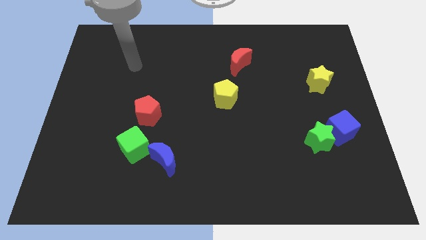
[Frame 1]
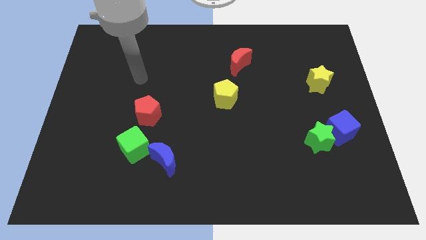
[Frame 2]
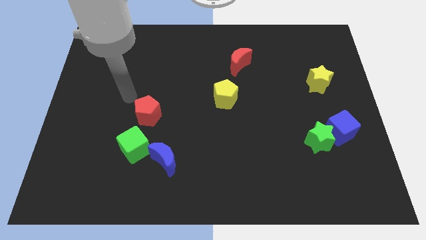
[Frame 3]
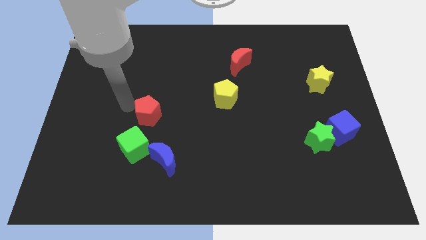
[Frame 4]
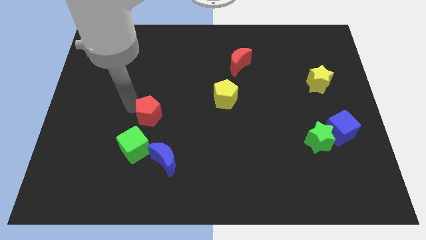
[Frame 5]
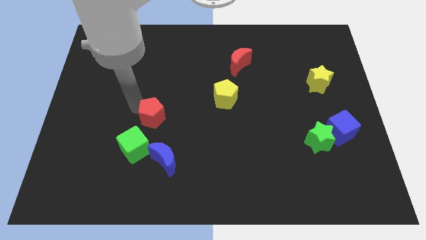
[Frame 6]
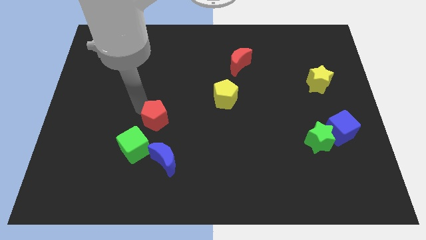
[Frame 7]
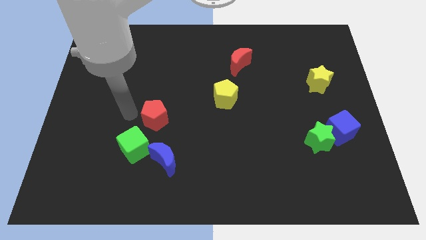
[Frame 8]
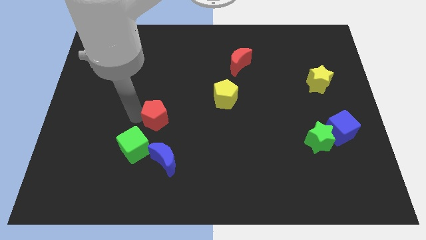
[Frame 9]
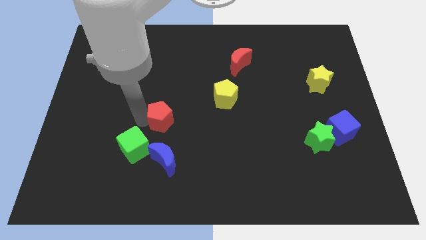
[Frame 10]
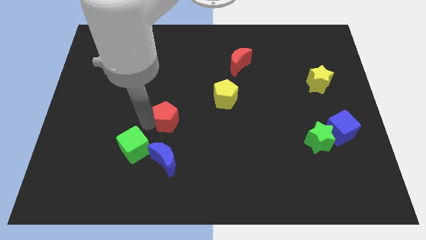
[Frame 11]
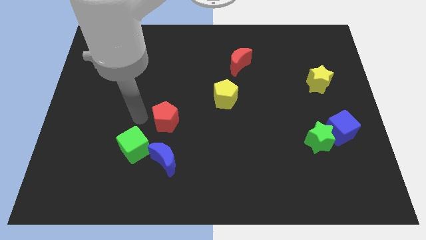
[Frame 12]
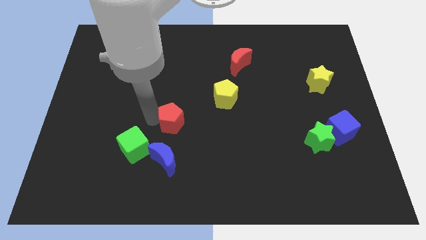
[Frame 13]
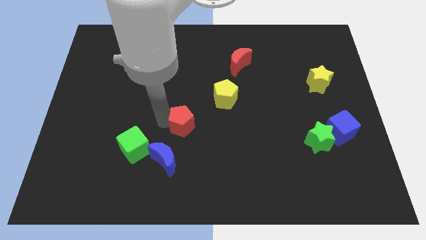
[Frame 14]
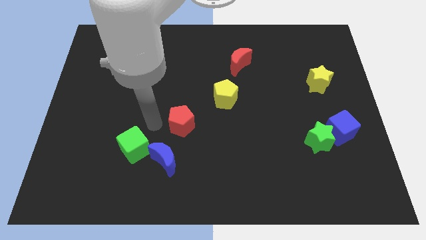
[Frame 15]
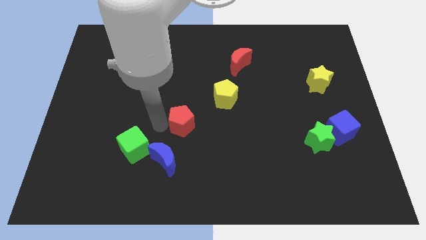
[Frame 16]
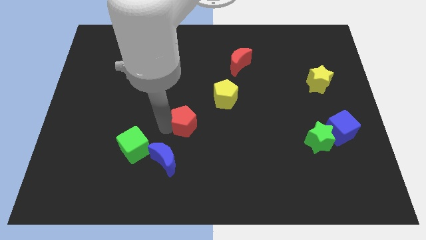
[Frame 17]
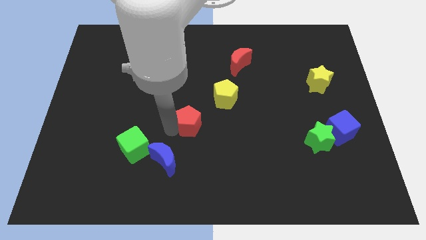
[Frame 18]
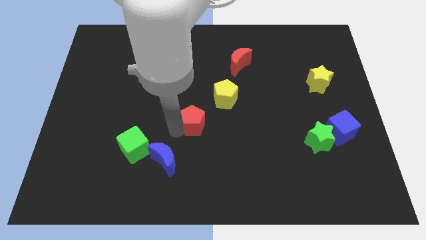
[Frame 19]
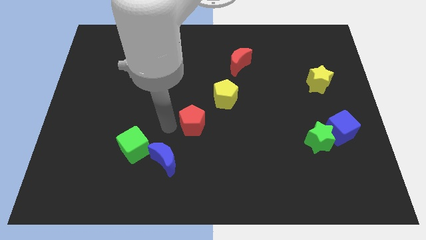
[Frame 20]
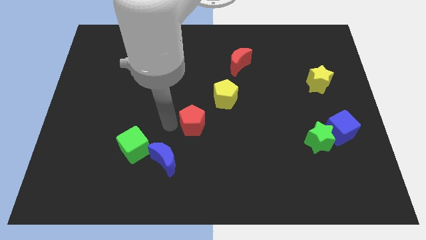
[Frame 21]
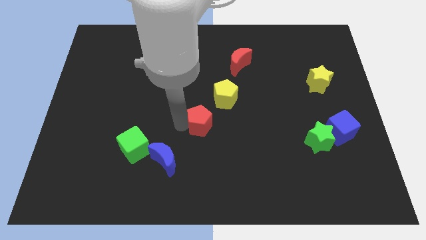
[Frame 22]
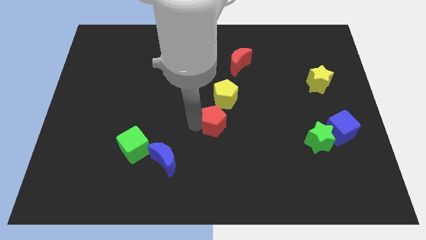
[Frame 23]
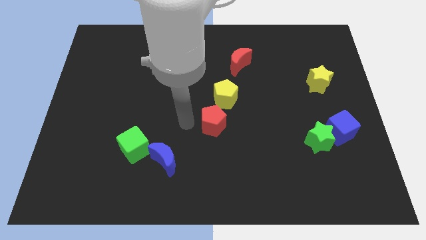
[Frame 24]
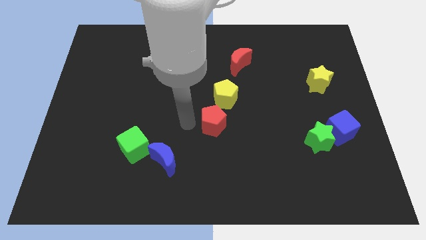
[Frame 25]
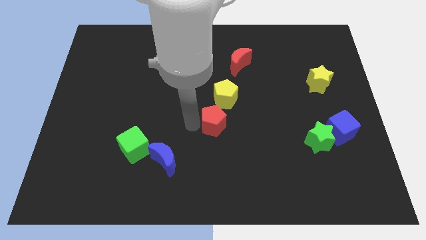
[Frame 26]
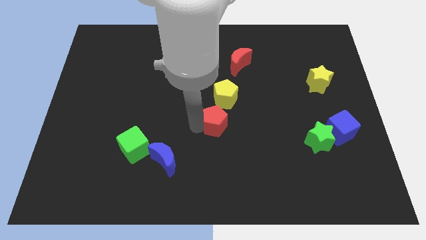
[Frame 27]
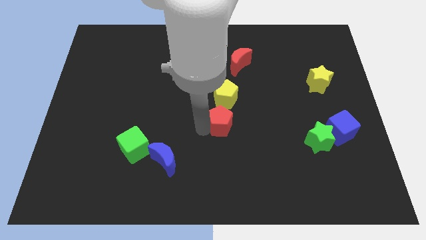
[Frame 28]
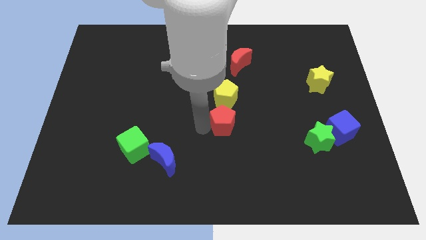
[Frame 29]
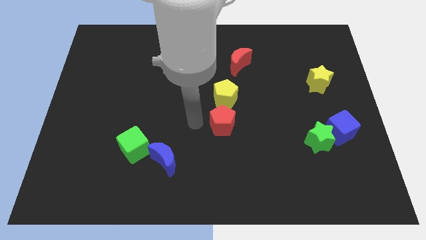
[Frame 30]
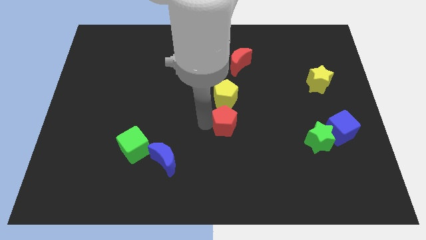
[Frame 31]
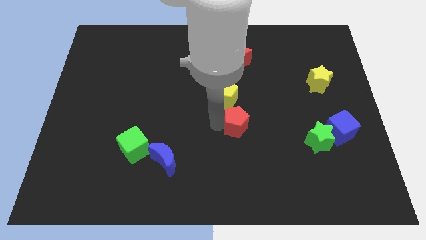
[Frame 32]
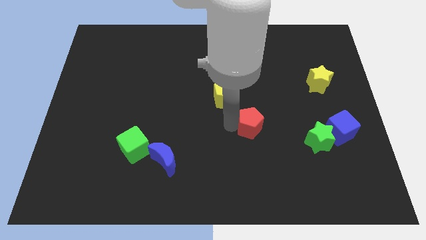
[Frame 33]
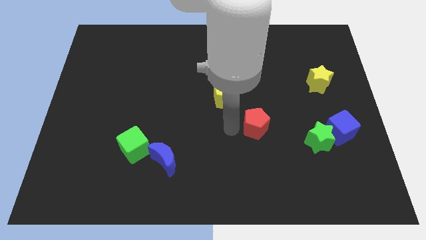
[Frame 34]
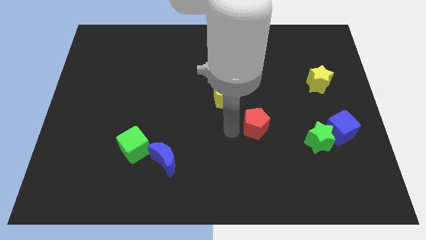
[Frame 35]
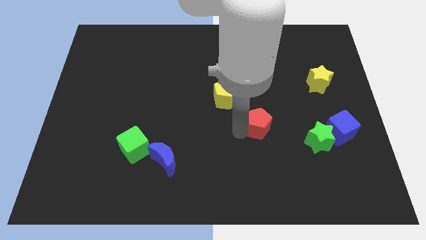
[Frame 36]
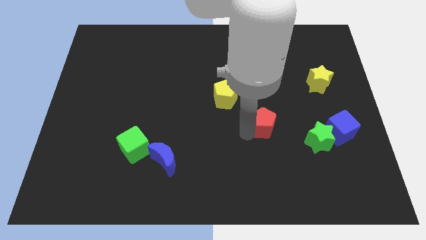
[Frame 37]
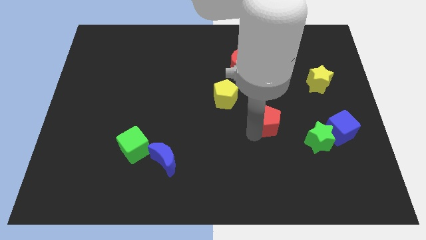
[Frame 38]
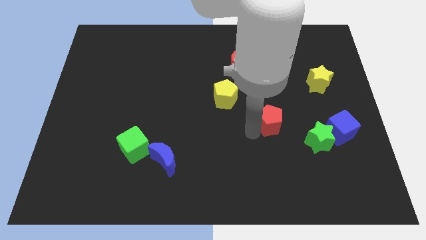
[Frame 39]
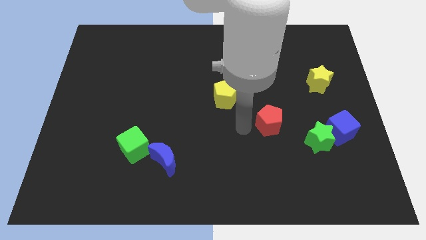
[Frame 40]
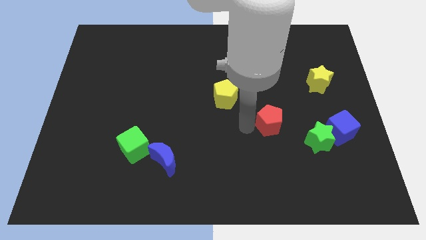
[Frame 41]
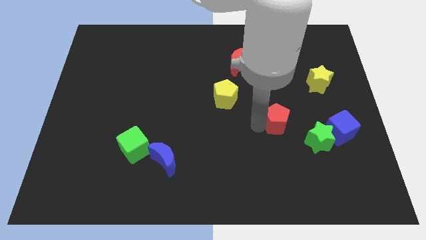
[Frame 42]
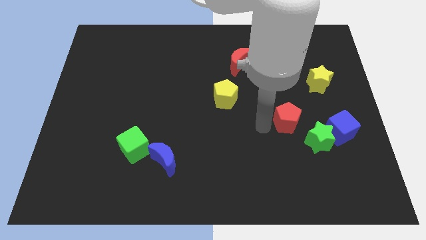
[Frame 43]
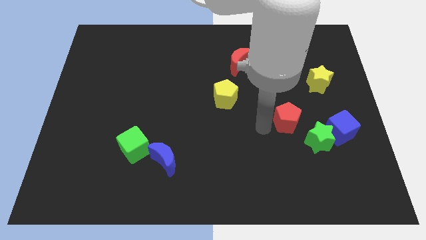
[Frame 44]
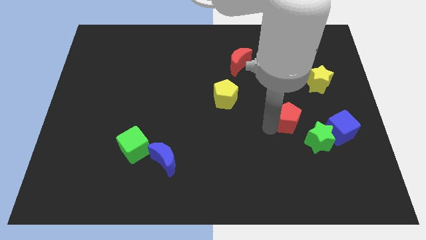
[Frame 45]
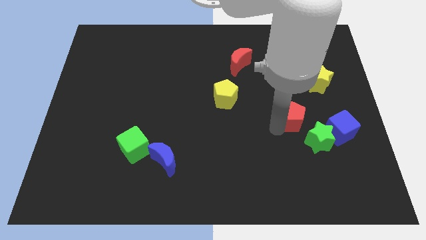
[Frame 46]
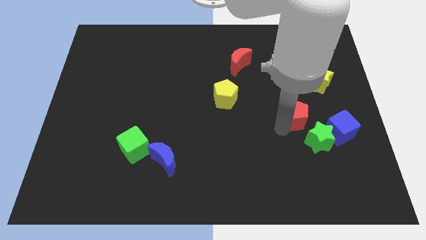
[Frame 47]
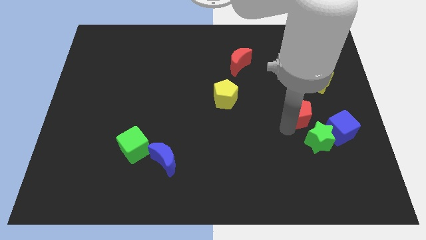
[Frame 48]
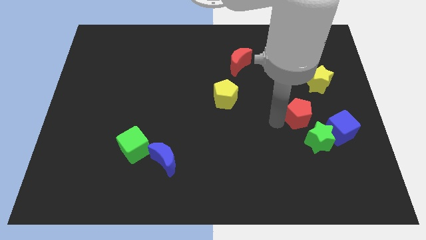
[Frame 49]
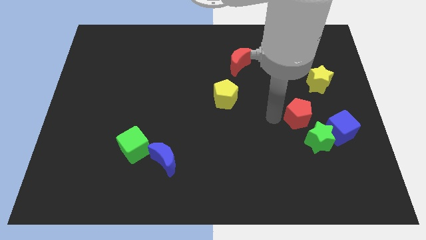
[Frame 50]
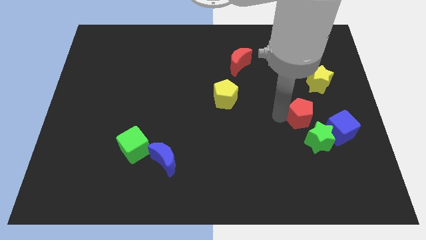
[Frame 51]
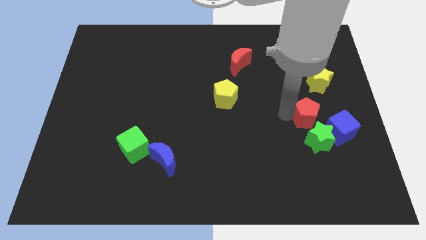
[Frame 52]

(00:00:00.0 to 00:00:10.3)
slide the red pentagon to the bottom of the yellow star

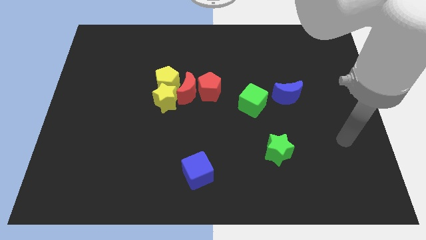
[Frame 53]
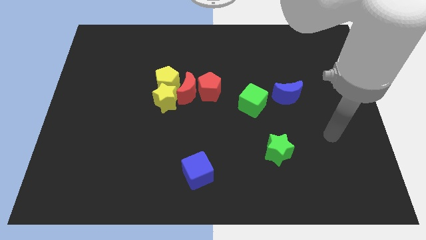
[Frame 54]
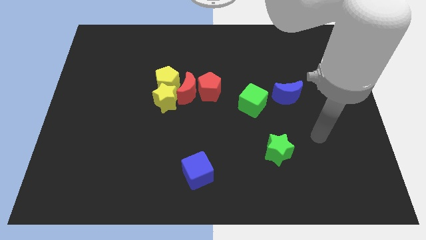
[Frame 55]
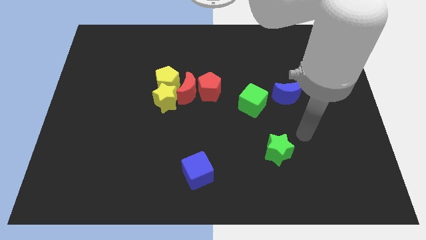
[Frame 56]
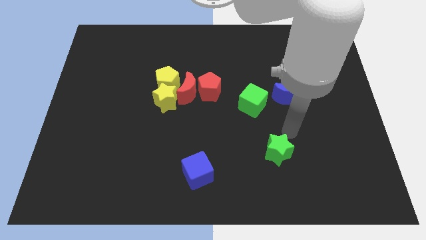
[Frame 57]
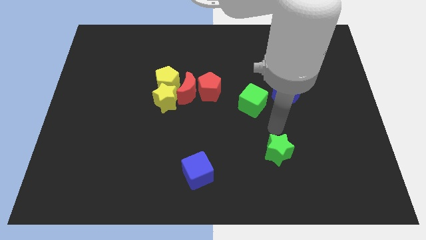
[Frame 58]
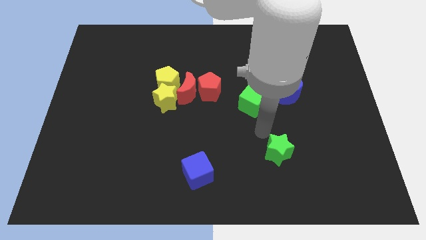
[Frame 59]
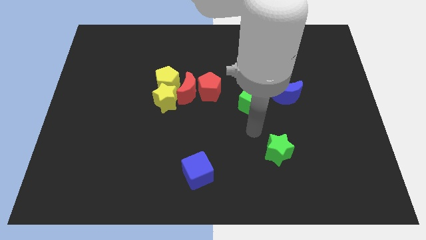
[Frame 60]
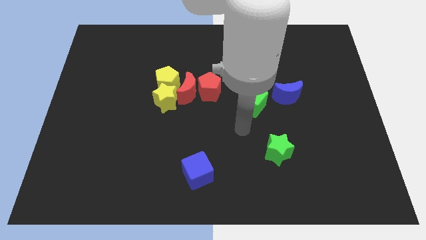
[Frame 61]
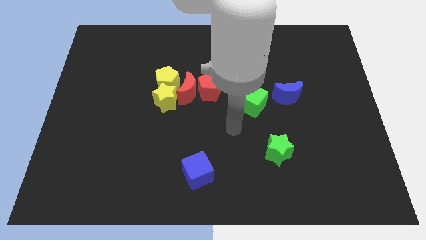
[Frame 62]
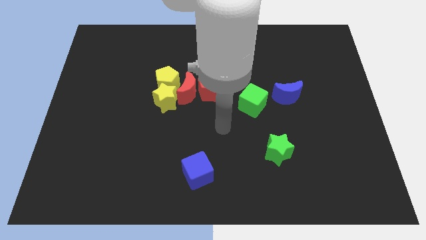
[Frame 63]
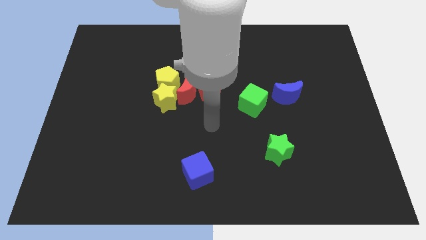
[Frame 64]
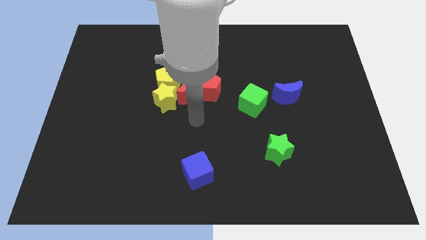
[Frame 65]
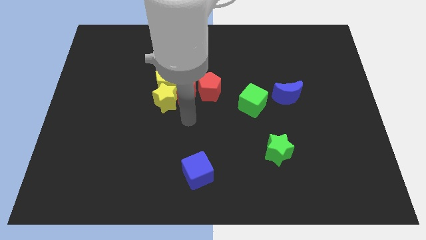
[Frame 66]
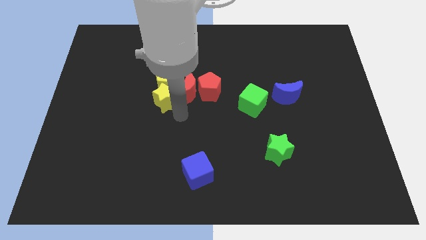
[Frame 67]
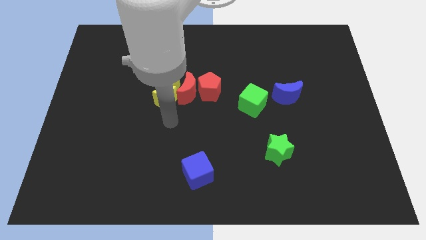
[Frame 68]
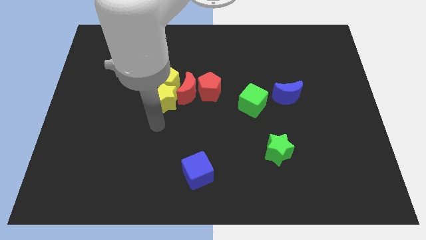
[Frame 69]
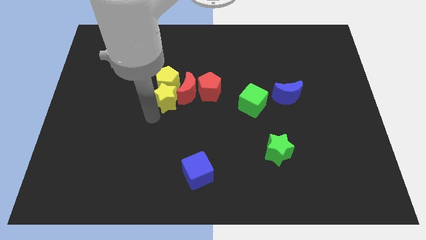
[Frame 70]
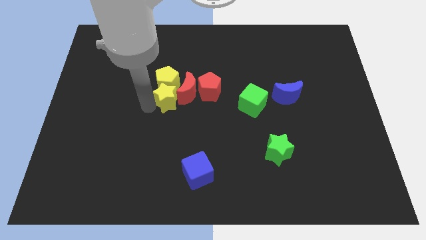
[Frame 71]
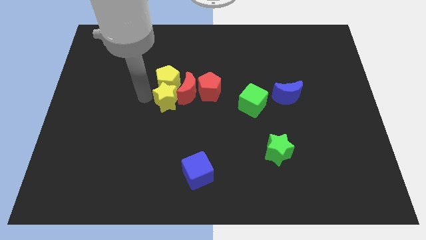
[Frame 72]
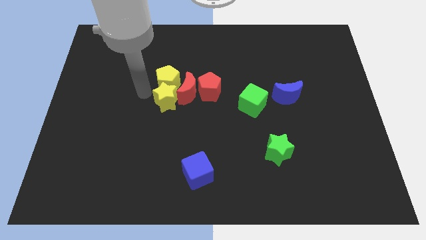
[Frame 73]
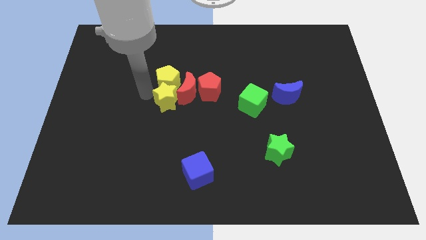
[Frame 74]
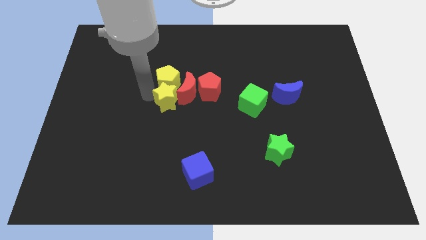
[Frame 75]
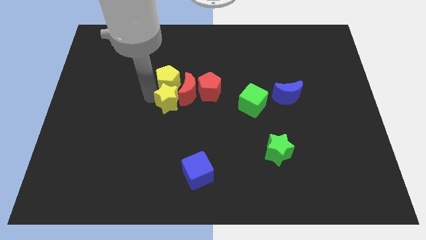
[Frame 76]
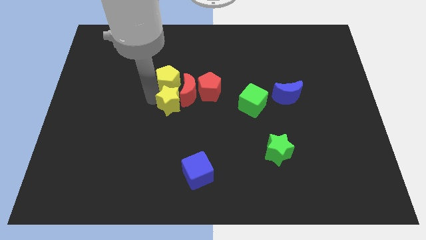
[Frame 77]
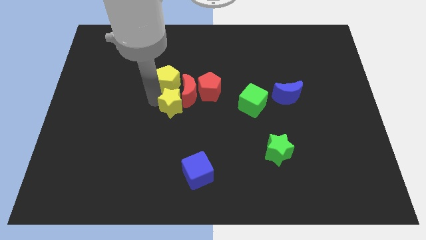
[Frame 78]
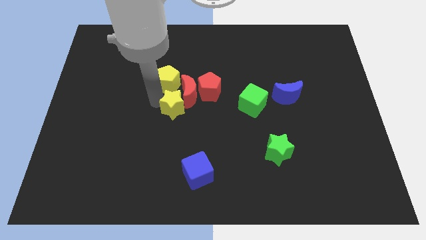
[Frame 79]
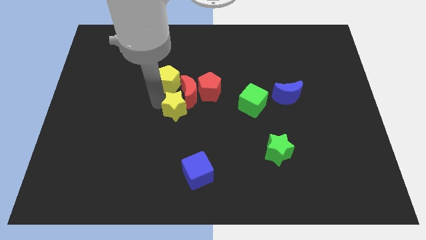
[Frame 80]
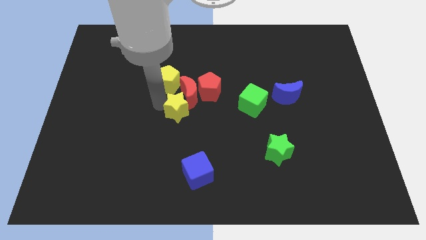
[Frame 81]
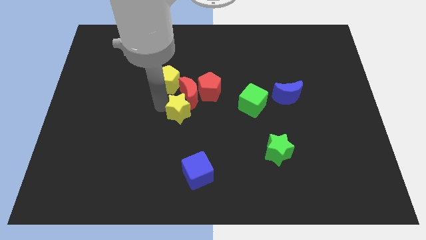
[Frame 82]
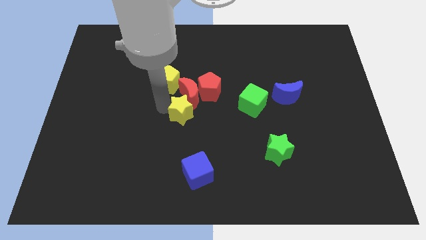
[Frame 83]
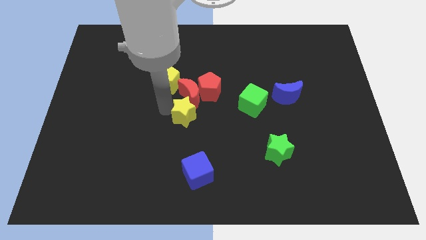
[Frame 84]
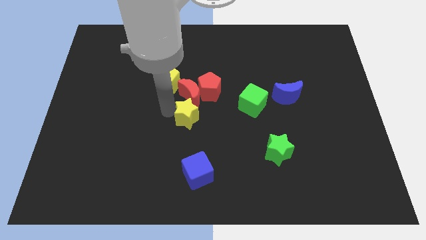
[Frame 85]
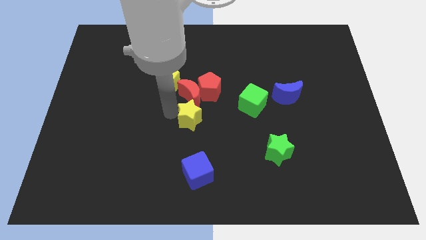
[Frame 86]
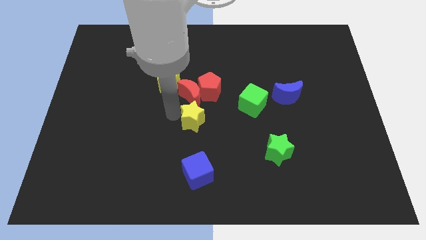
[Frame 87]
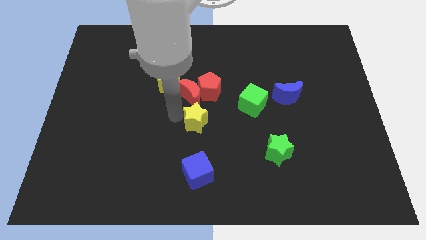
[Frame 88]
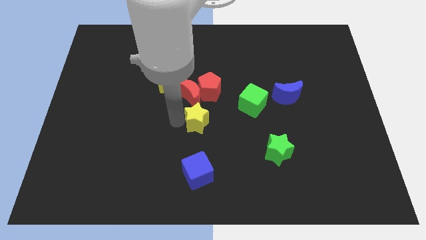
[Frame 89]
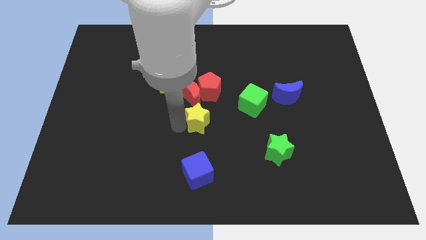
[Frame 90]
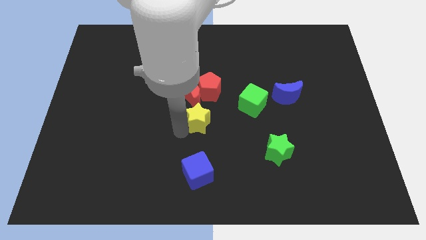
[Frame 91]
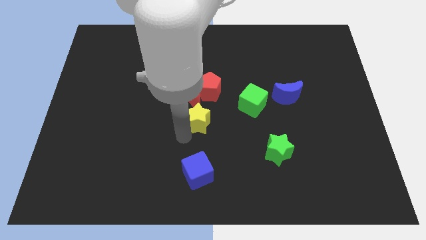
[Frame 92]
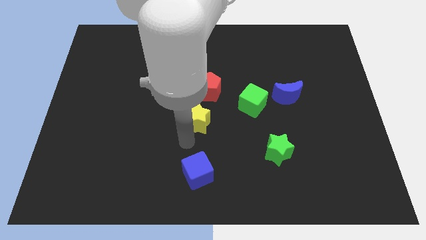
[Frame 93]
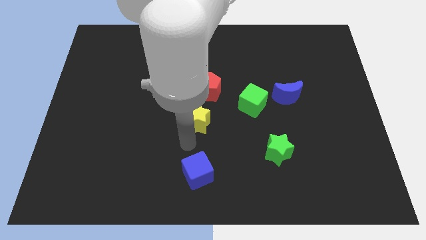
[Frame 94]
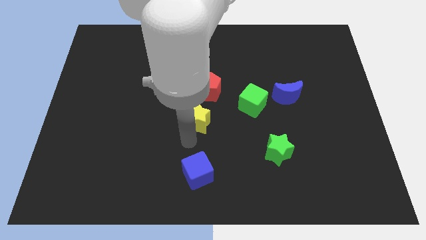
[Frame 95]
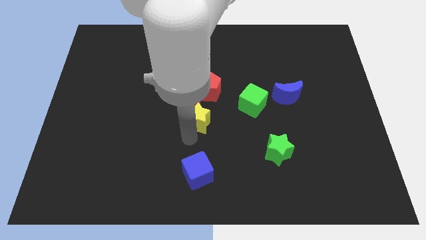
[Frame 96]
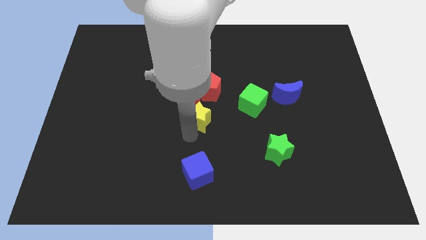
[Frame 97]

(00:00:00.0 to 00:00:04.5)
slide the yellow star to the left side of the green cube
